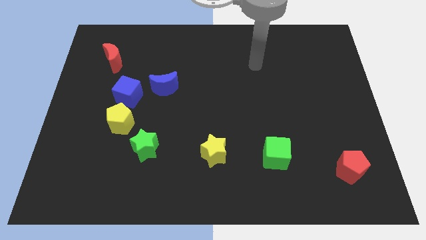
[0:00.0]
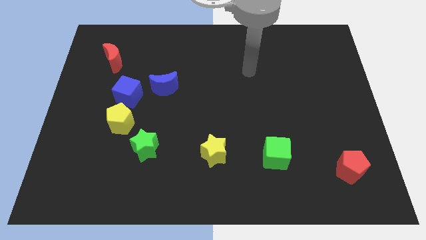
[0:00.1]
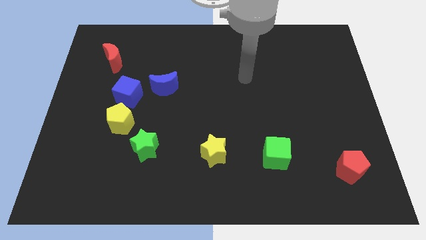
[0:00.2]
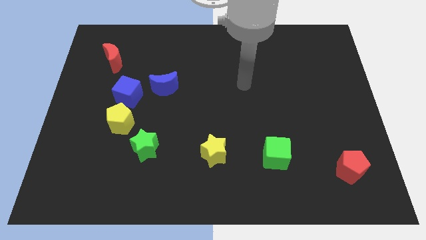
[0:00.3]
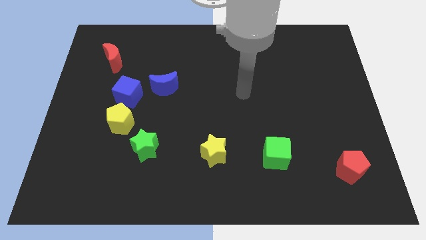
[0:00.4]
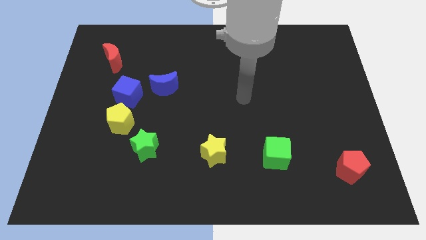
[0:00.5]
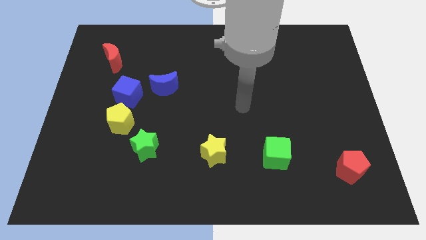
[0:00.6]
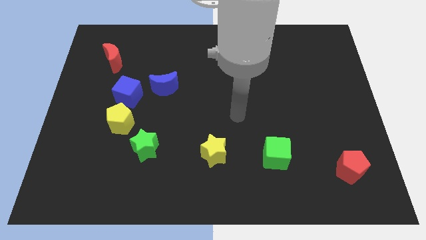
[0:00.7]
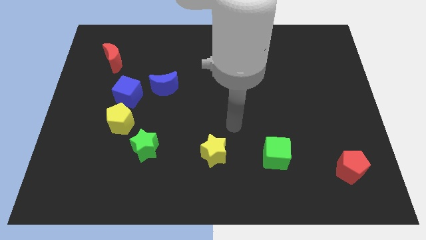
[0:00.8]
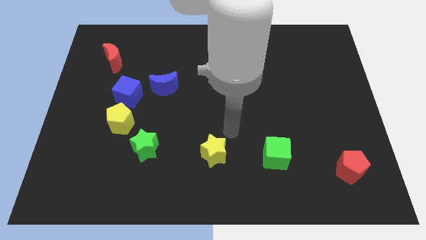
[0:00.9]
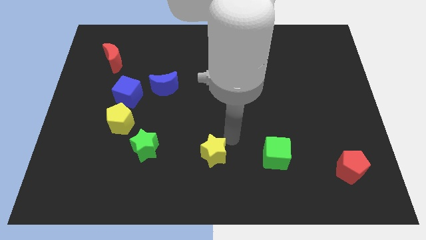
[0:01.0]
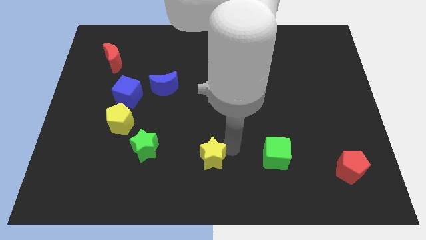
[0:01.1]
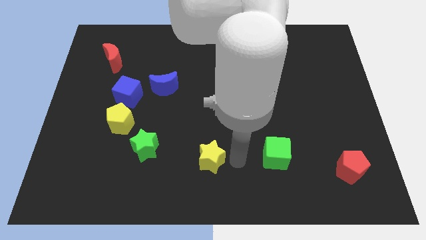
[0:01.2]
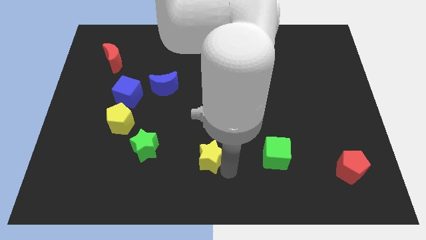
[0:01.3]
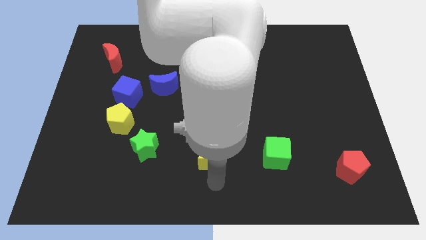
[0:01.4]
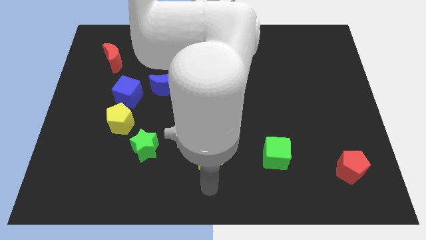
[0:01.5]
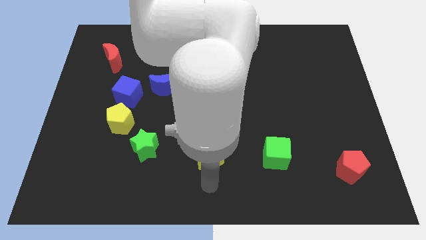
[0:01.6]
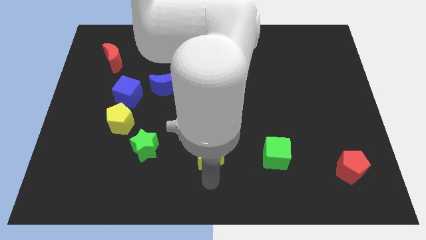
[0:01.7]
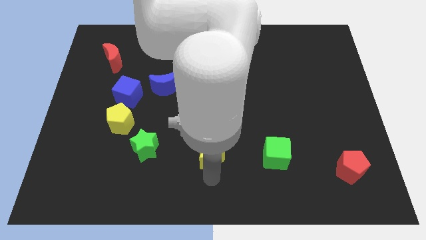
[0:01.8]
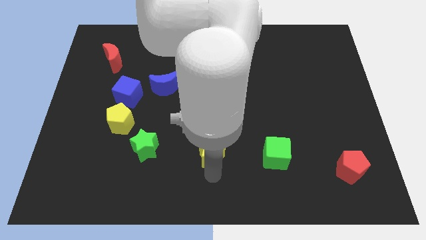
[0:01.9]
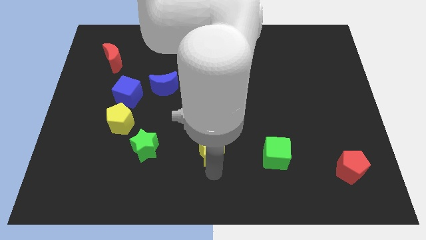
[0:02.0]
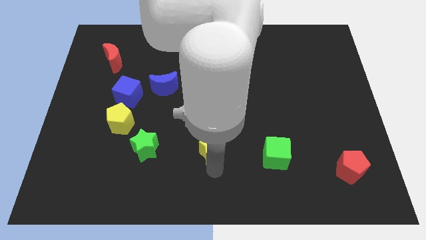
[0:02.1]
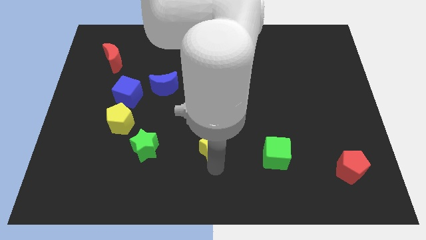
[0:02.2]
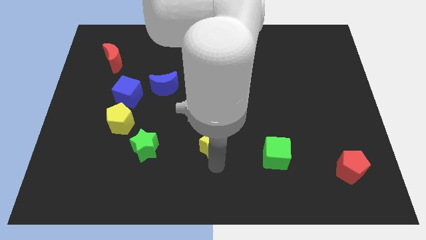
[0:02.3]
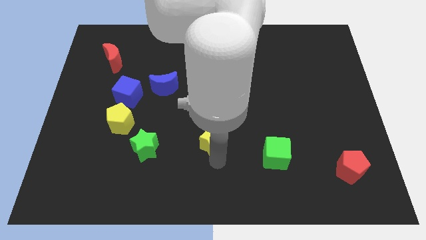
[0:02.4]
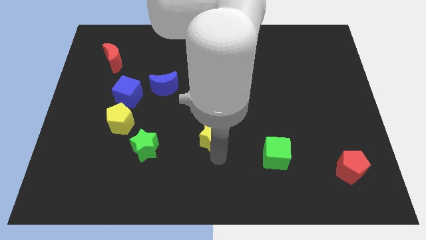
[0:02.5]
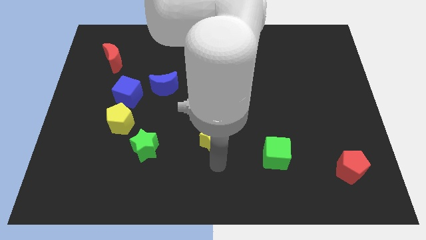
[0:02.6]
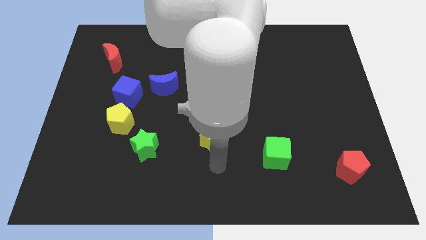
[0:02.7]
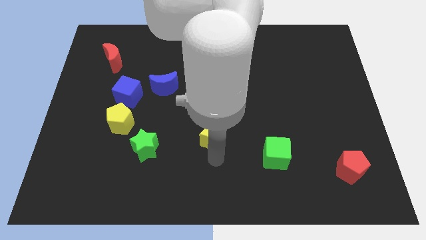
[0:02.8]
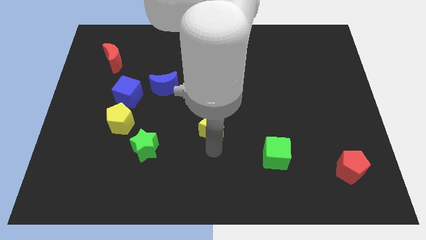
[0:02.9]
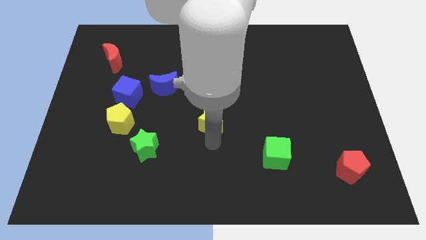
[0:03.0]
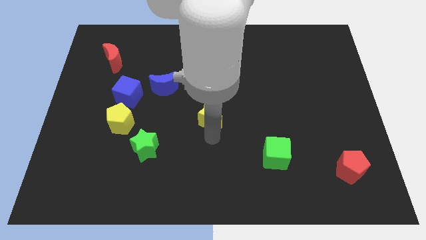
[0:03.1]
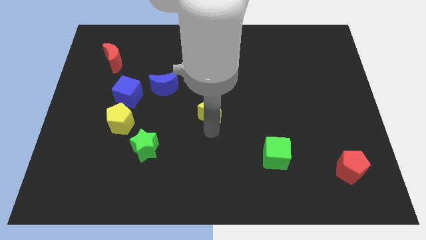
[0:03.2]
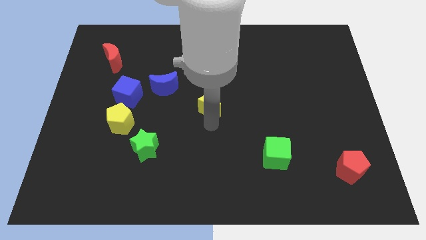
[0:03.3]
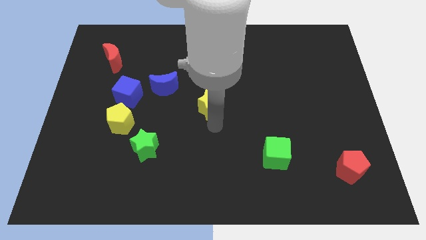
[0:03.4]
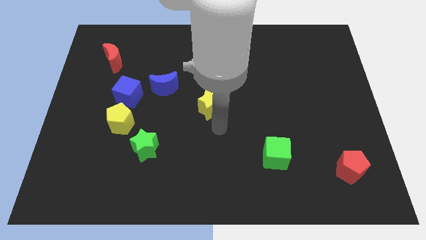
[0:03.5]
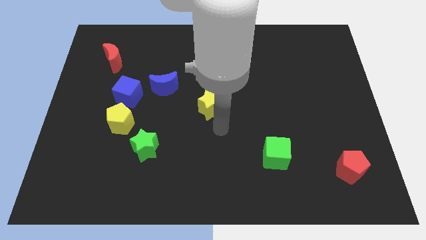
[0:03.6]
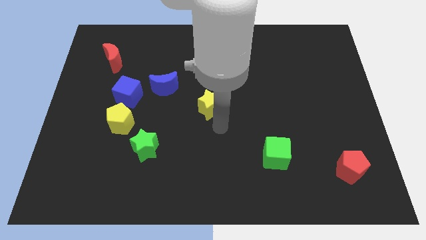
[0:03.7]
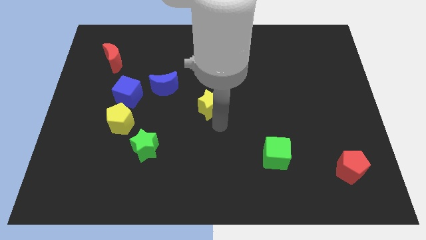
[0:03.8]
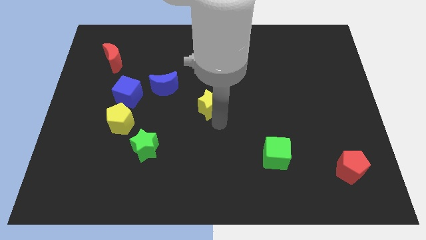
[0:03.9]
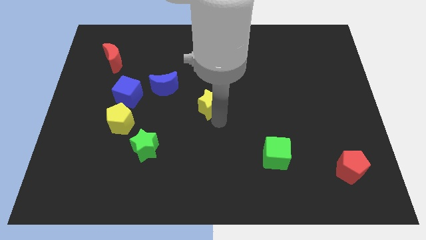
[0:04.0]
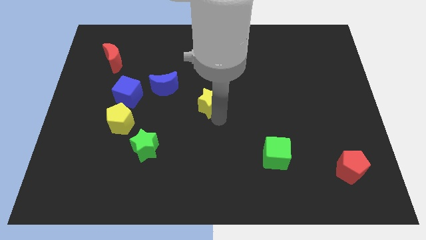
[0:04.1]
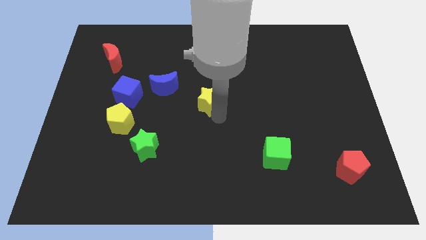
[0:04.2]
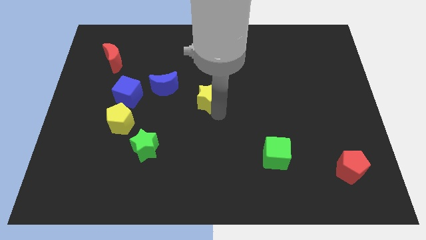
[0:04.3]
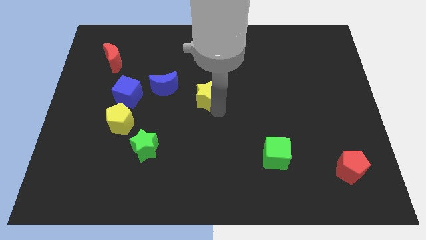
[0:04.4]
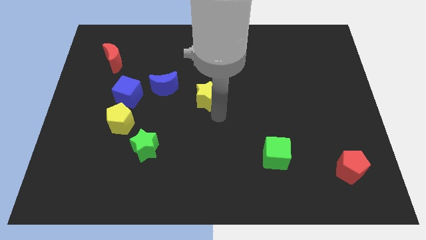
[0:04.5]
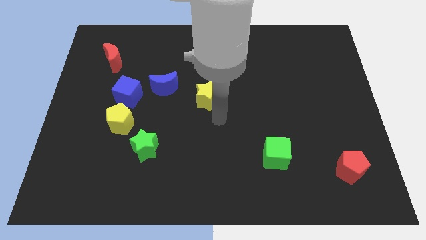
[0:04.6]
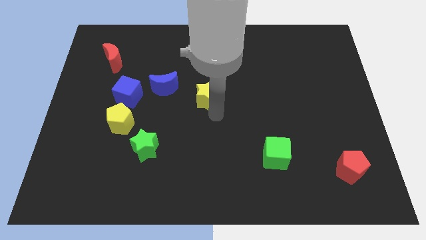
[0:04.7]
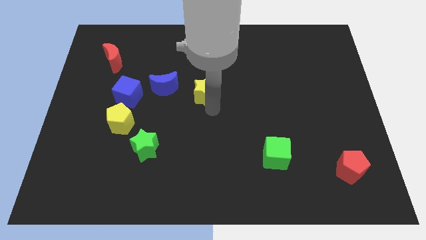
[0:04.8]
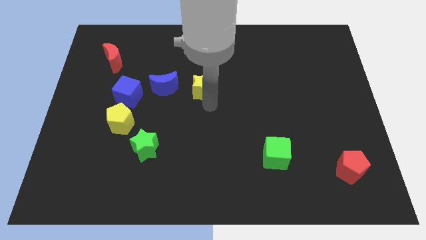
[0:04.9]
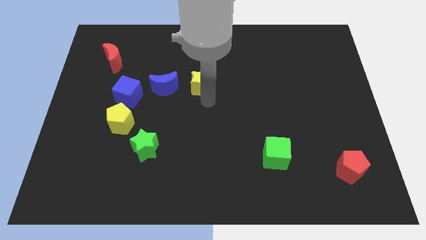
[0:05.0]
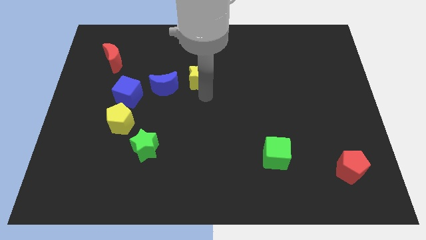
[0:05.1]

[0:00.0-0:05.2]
move the yellow star to the top right of the blue moon
